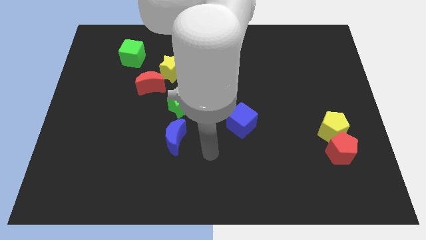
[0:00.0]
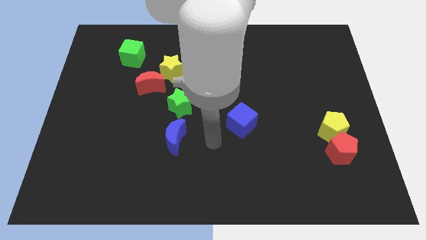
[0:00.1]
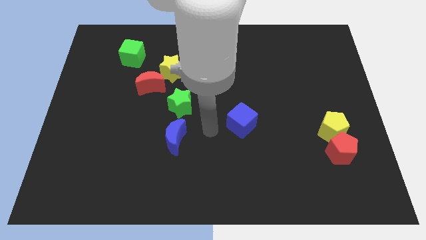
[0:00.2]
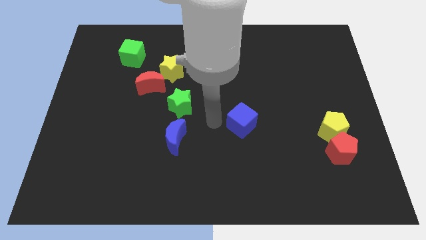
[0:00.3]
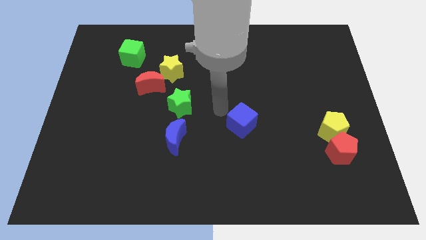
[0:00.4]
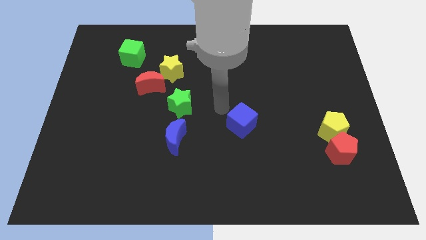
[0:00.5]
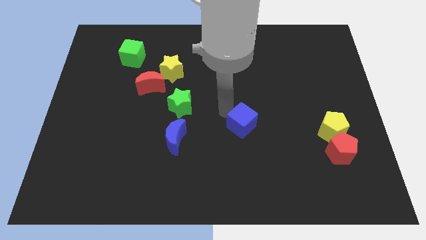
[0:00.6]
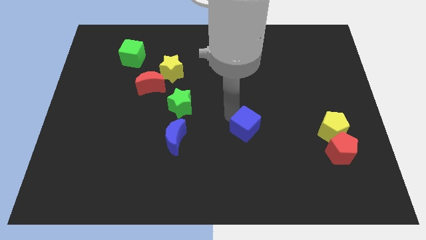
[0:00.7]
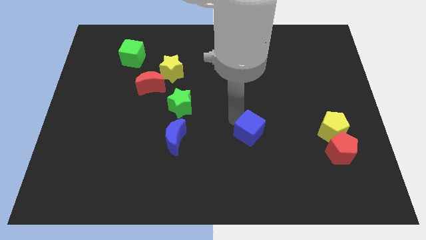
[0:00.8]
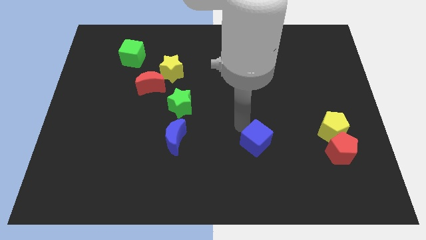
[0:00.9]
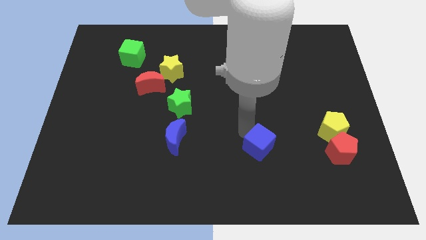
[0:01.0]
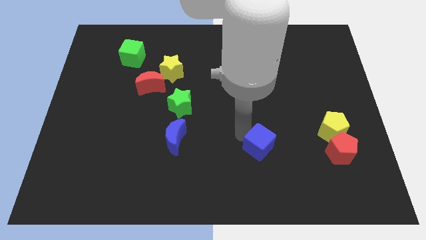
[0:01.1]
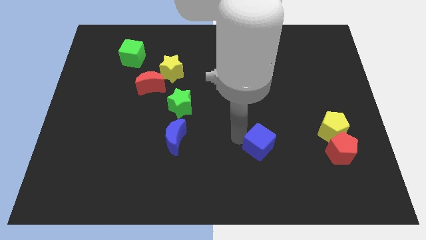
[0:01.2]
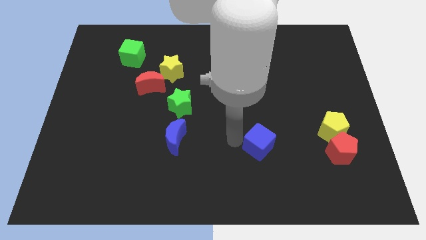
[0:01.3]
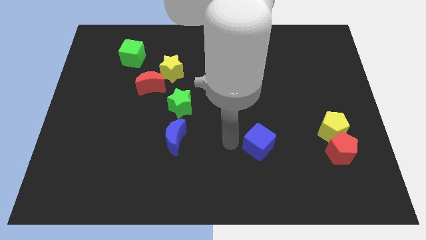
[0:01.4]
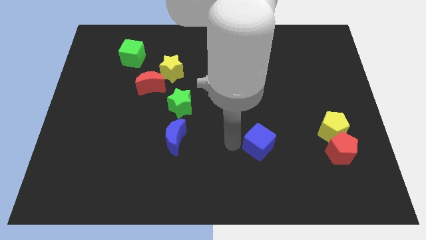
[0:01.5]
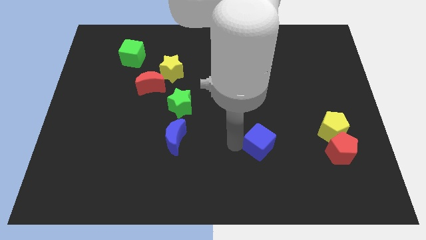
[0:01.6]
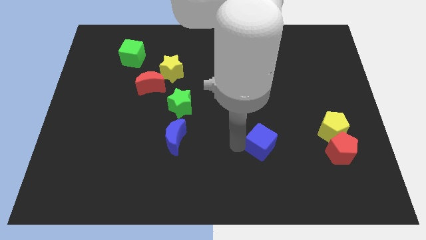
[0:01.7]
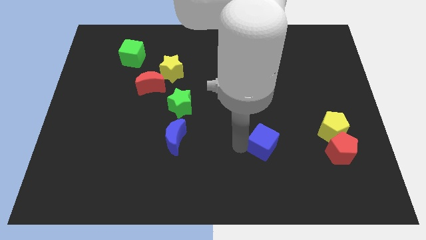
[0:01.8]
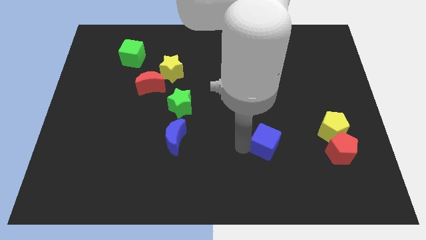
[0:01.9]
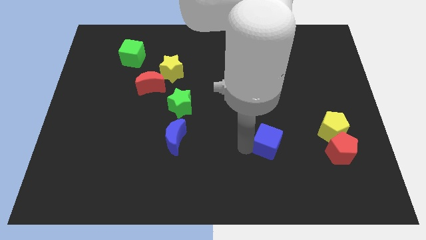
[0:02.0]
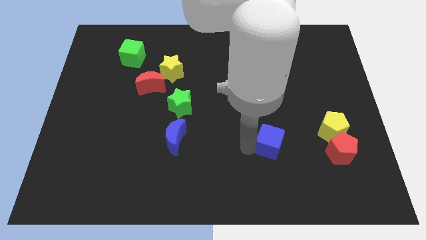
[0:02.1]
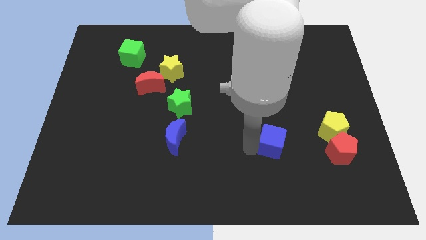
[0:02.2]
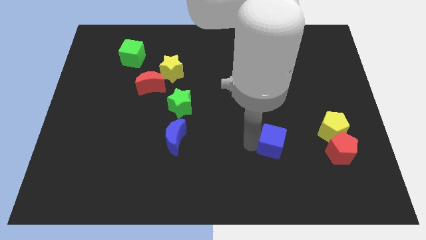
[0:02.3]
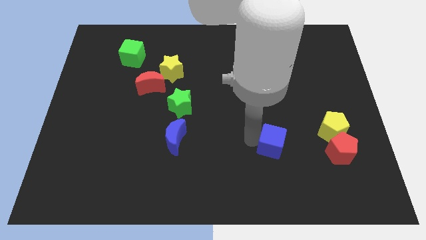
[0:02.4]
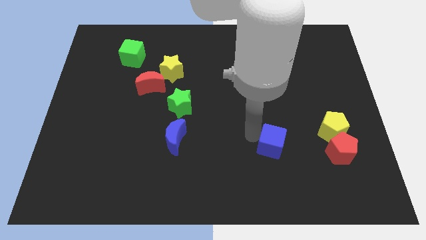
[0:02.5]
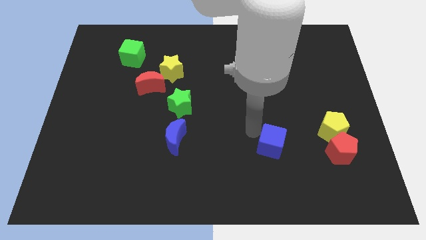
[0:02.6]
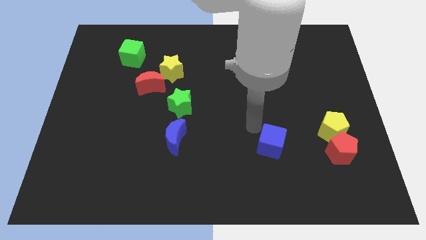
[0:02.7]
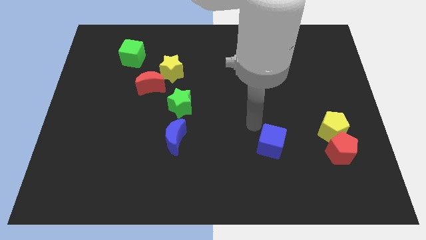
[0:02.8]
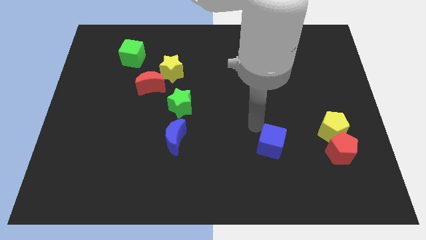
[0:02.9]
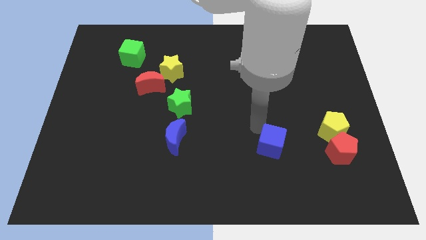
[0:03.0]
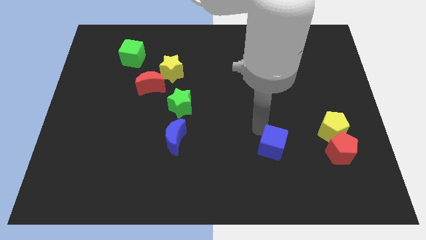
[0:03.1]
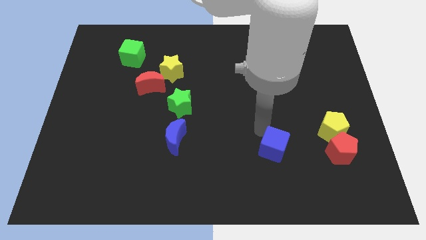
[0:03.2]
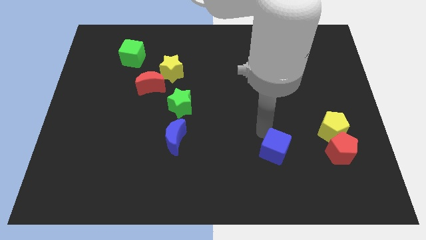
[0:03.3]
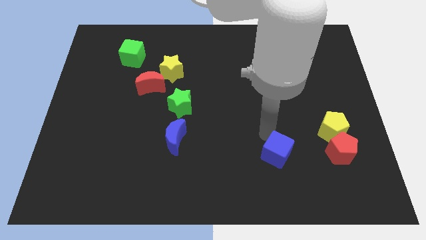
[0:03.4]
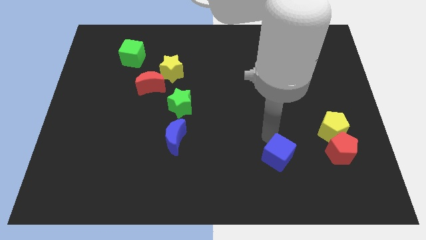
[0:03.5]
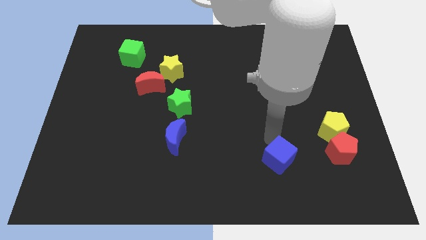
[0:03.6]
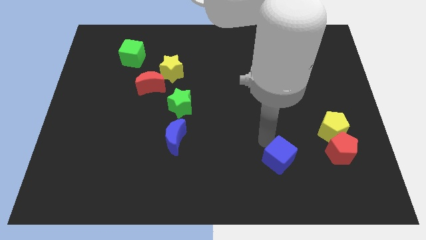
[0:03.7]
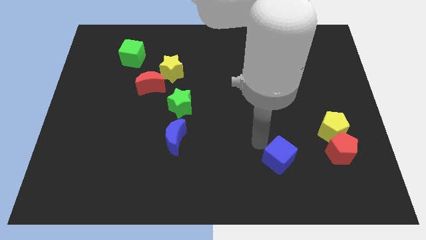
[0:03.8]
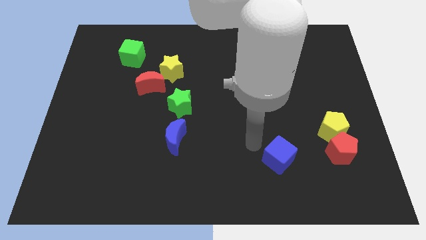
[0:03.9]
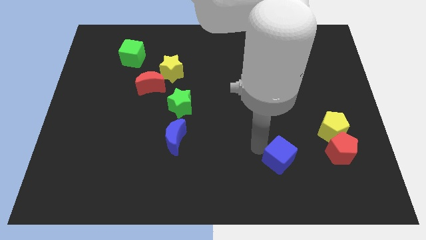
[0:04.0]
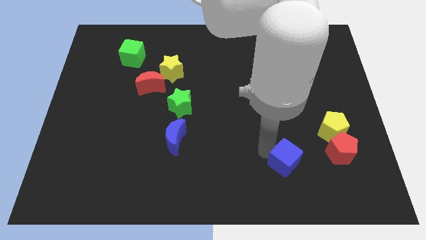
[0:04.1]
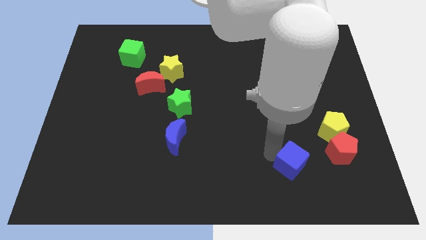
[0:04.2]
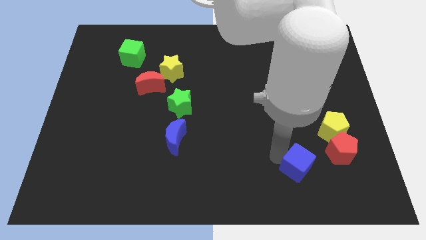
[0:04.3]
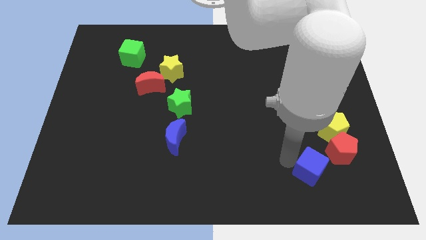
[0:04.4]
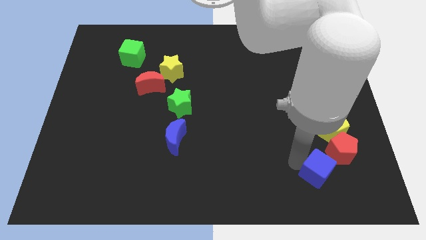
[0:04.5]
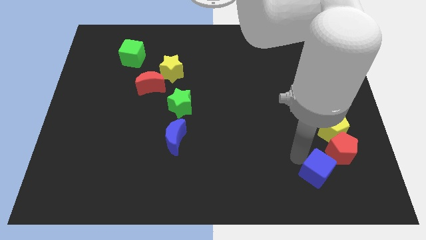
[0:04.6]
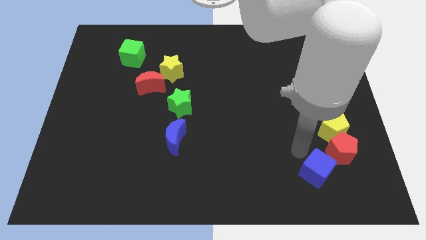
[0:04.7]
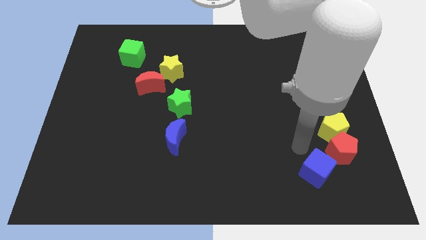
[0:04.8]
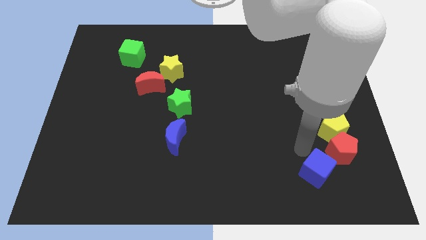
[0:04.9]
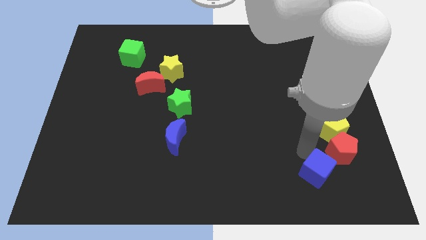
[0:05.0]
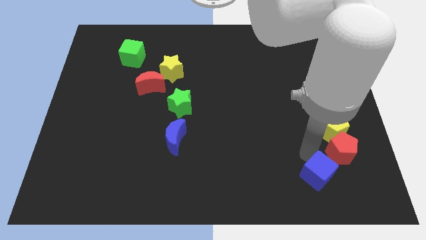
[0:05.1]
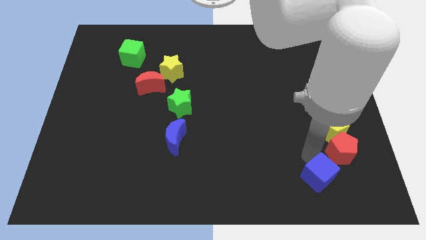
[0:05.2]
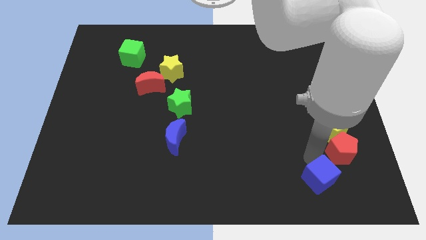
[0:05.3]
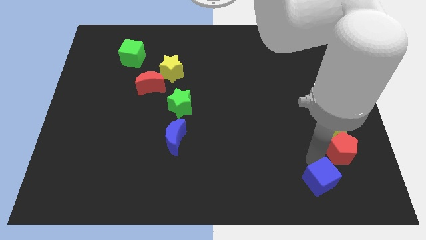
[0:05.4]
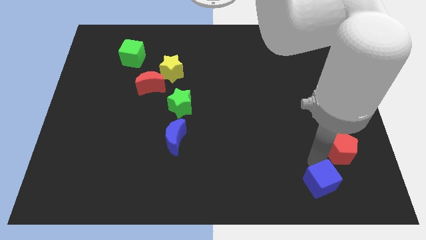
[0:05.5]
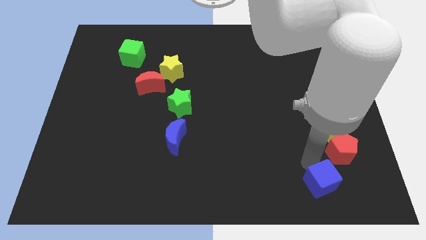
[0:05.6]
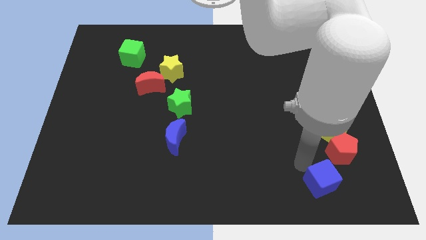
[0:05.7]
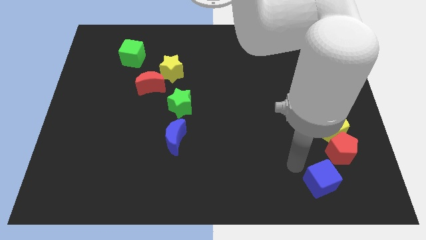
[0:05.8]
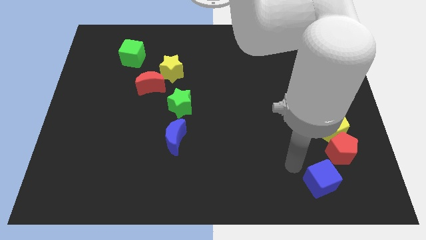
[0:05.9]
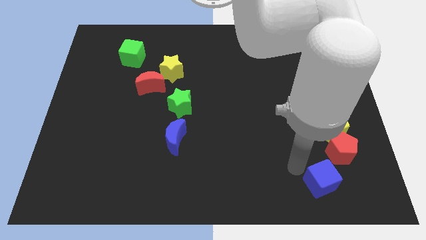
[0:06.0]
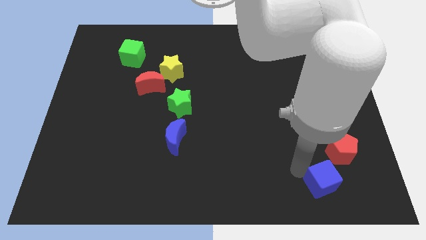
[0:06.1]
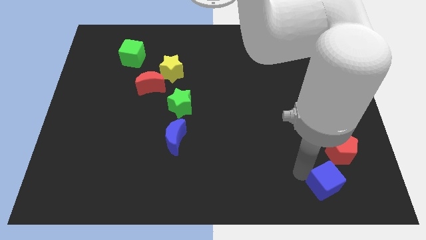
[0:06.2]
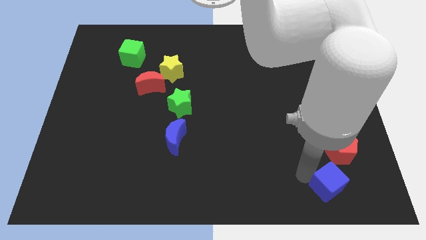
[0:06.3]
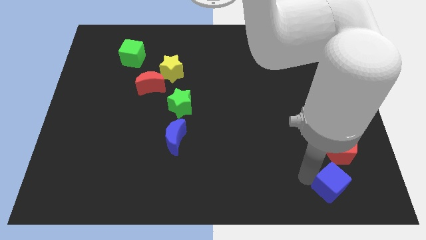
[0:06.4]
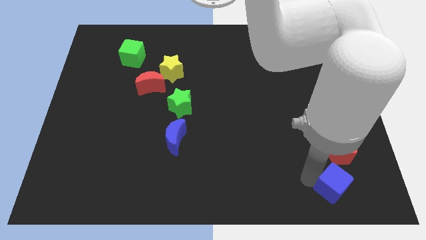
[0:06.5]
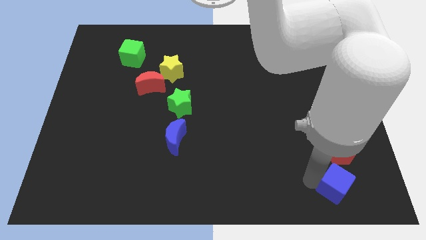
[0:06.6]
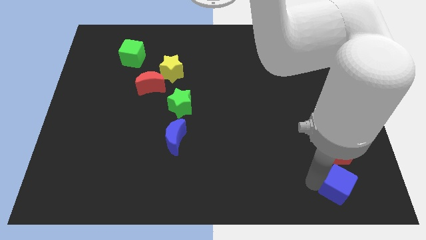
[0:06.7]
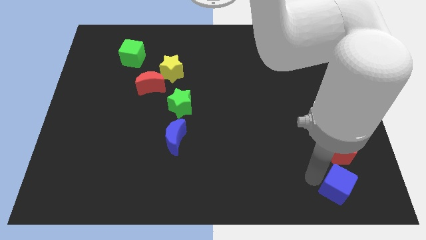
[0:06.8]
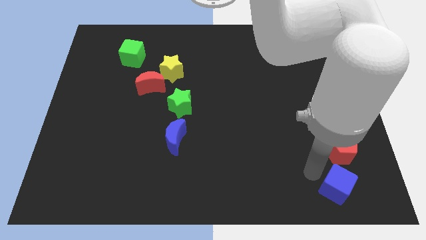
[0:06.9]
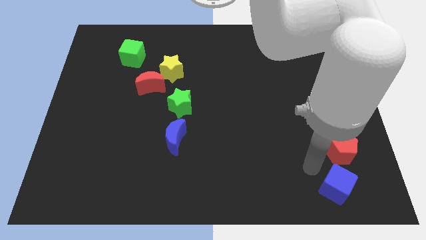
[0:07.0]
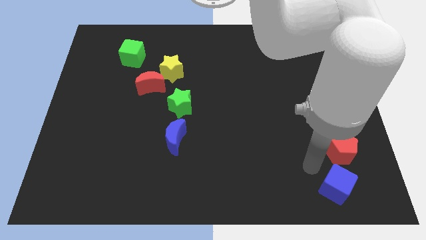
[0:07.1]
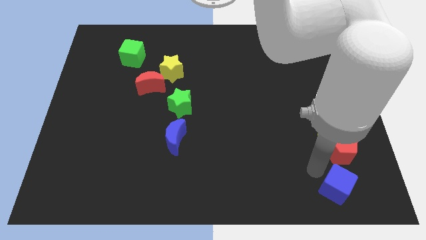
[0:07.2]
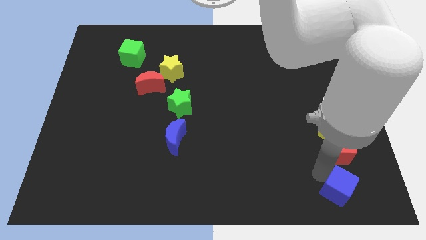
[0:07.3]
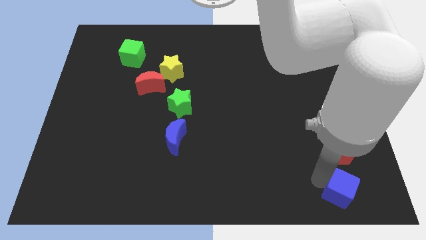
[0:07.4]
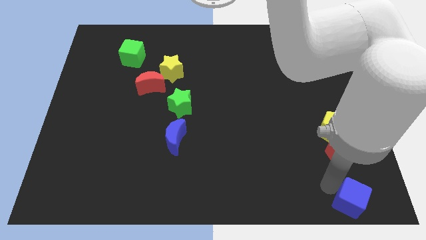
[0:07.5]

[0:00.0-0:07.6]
put the blue cube to the bottom right corner
